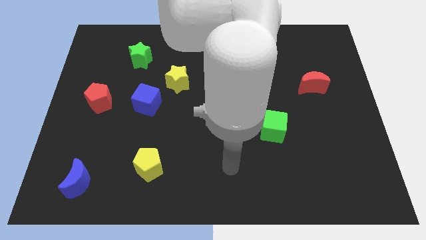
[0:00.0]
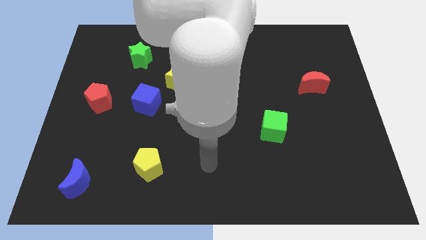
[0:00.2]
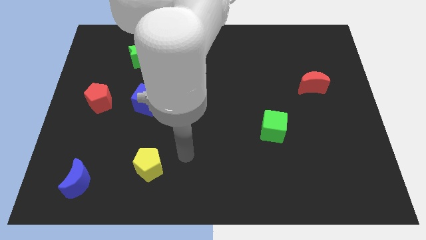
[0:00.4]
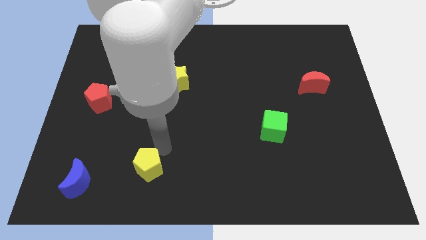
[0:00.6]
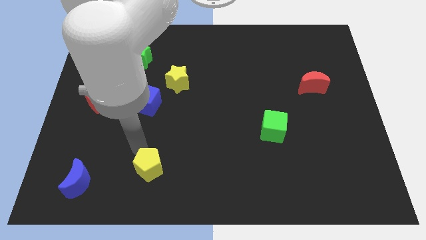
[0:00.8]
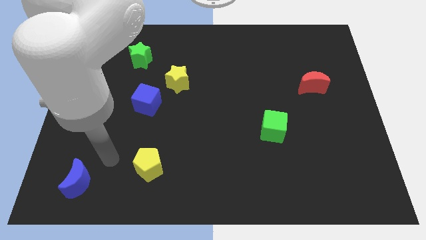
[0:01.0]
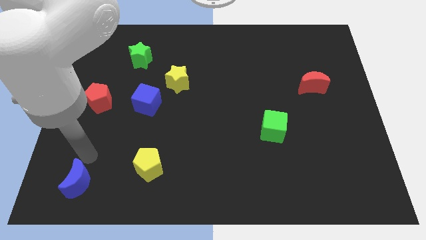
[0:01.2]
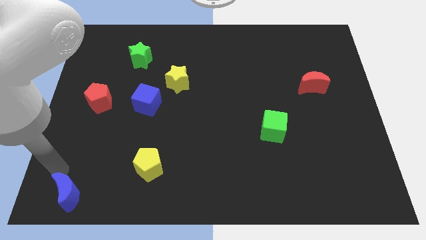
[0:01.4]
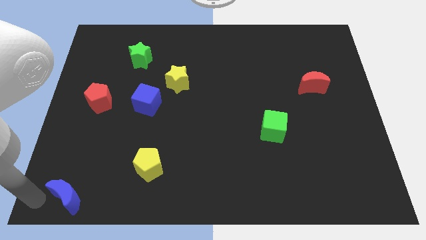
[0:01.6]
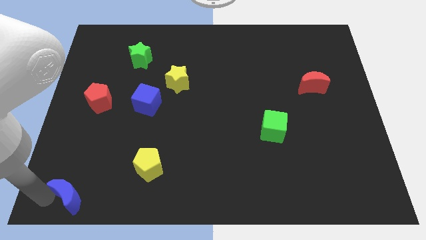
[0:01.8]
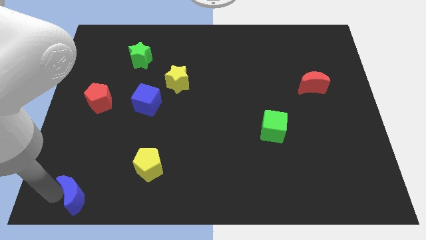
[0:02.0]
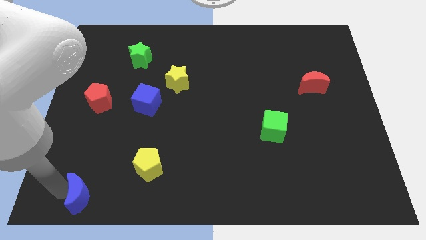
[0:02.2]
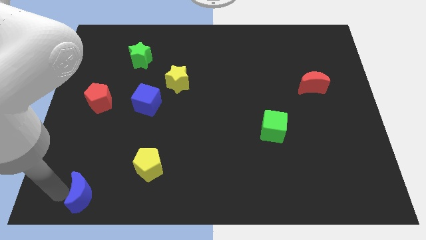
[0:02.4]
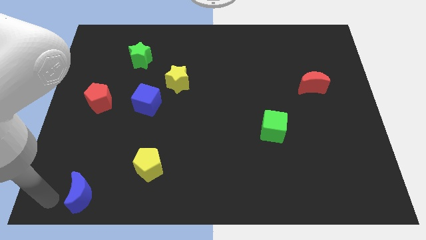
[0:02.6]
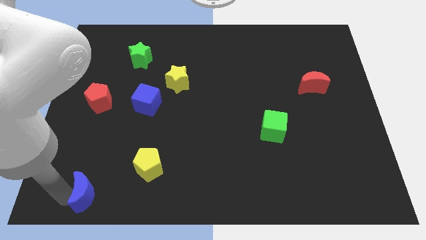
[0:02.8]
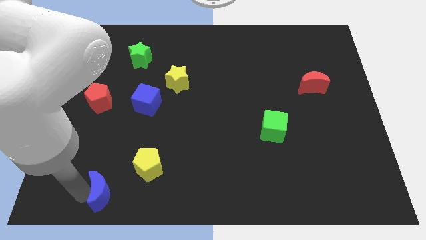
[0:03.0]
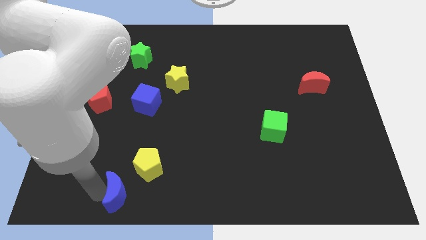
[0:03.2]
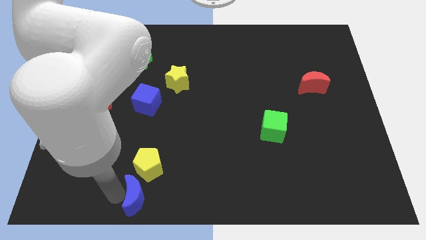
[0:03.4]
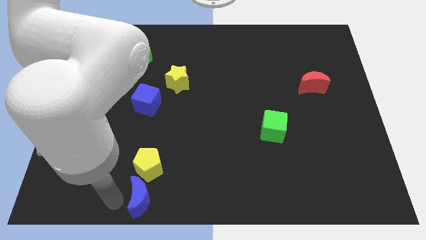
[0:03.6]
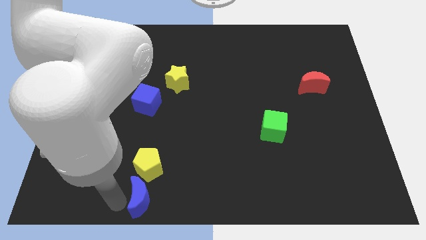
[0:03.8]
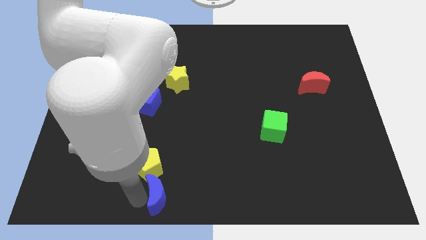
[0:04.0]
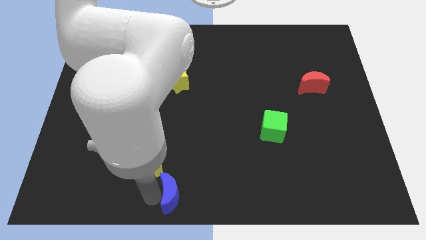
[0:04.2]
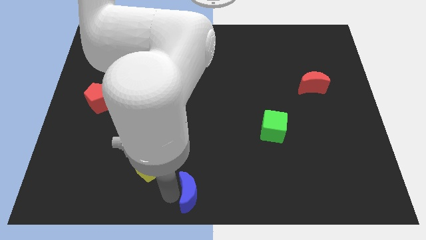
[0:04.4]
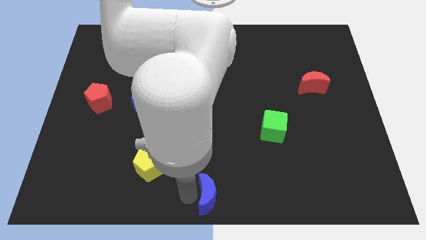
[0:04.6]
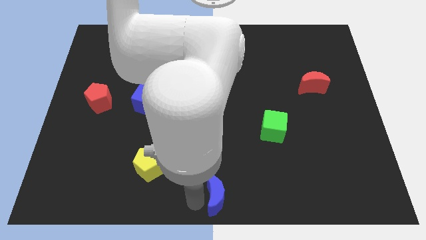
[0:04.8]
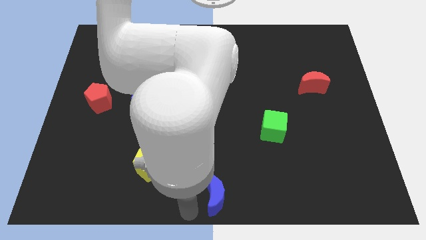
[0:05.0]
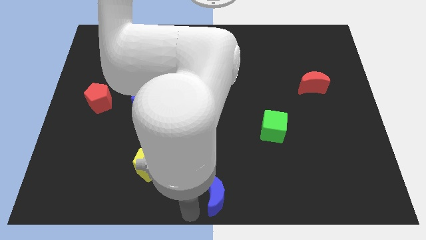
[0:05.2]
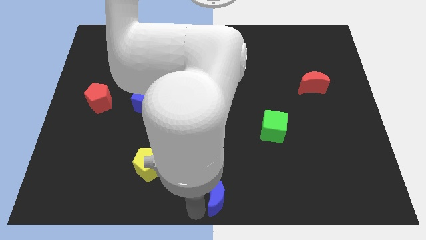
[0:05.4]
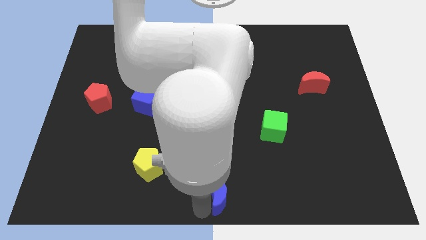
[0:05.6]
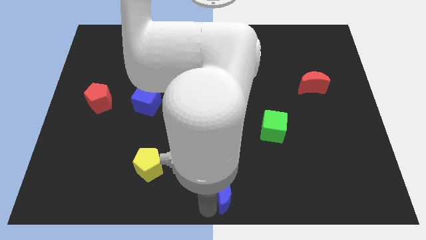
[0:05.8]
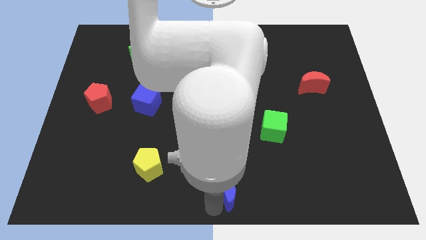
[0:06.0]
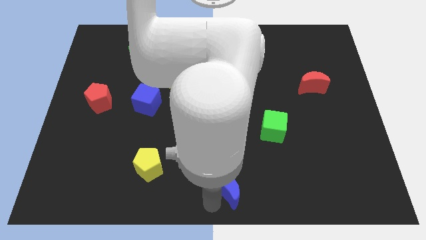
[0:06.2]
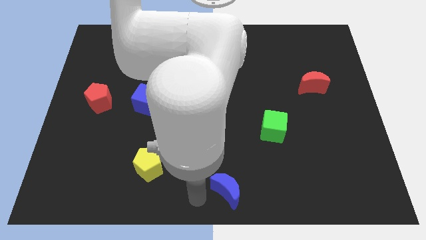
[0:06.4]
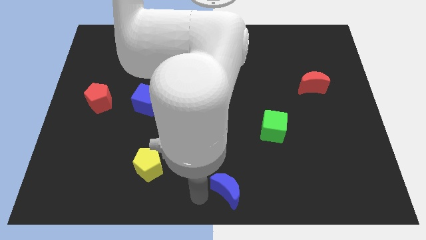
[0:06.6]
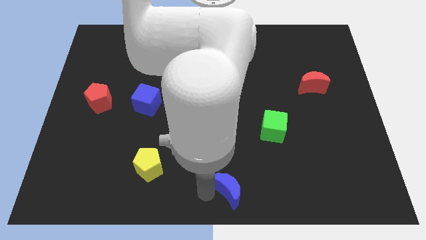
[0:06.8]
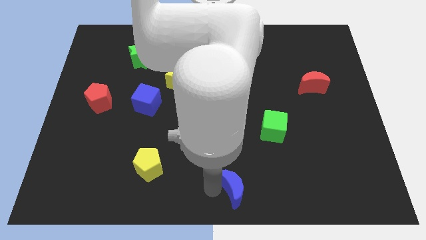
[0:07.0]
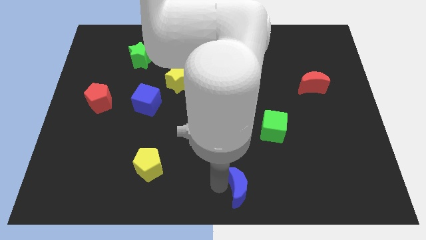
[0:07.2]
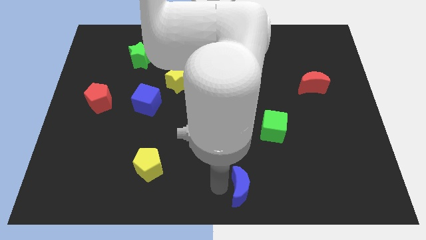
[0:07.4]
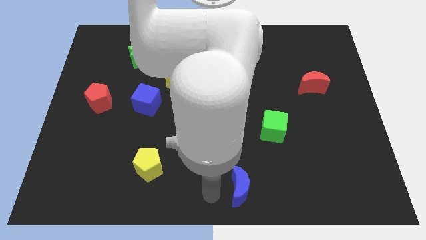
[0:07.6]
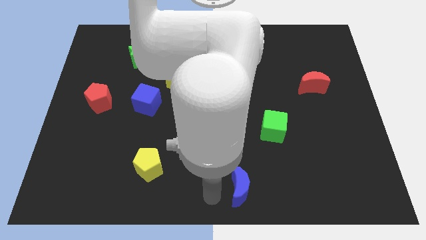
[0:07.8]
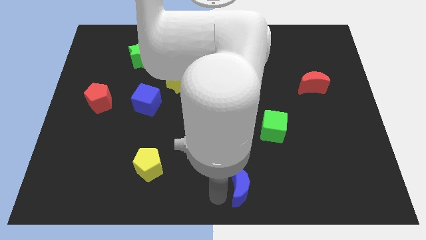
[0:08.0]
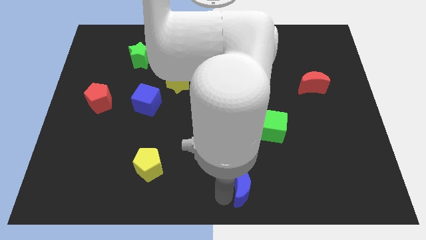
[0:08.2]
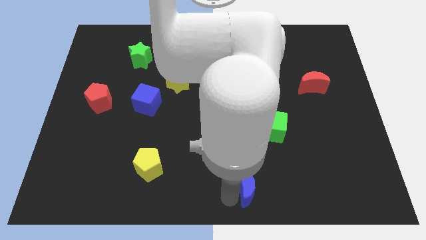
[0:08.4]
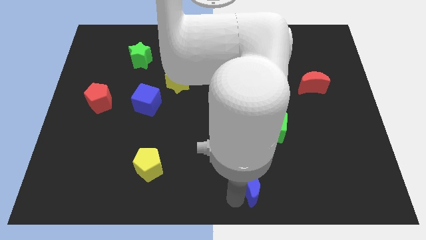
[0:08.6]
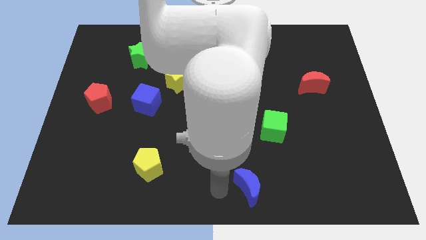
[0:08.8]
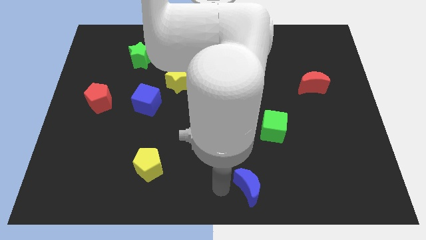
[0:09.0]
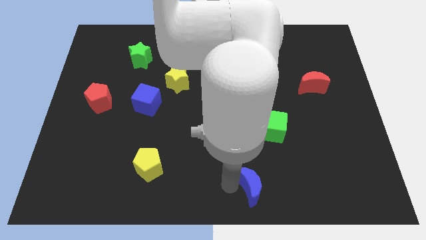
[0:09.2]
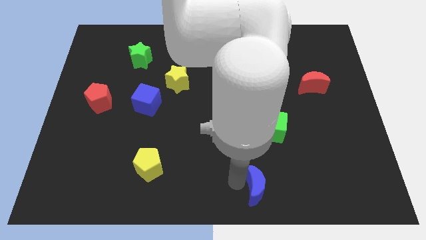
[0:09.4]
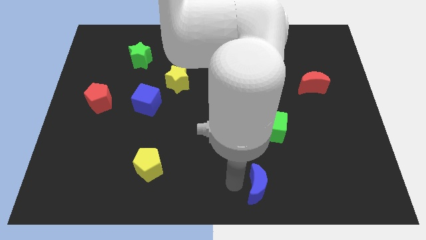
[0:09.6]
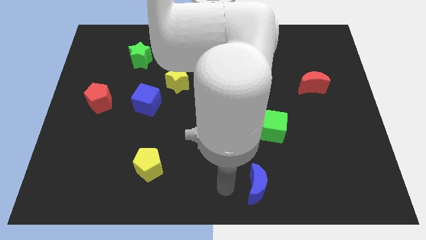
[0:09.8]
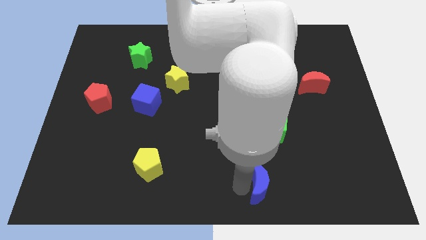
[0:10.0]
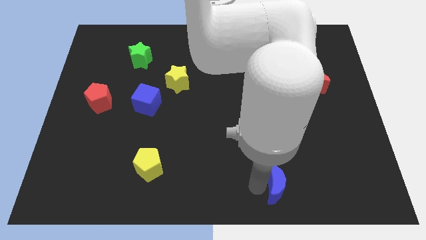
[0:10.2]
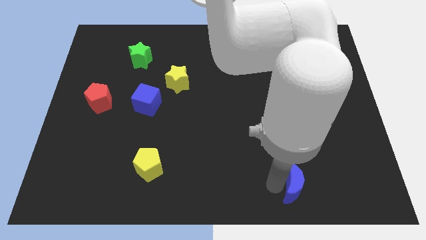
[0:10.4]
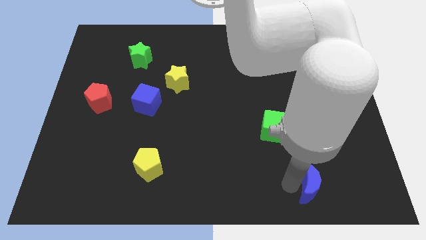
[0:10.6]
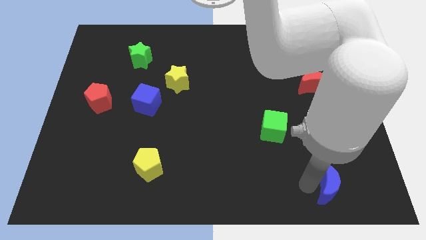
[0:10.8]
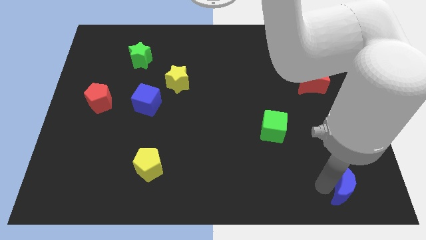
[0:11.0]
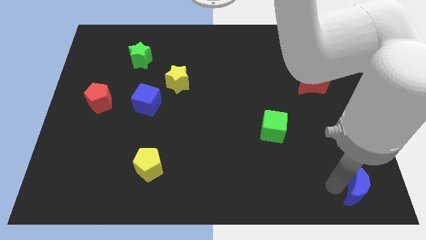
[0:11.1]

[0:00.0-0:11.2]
slide the blue moon to the bottom right corner

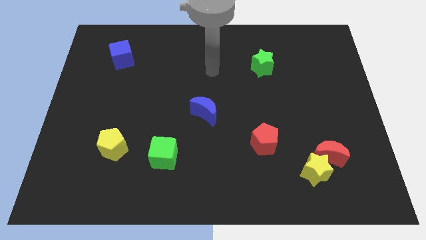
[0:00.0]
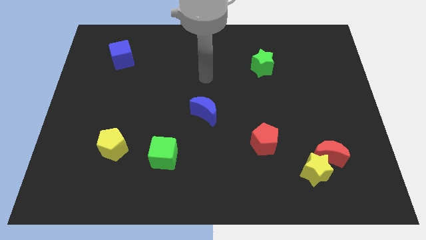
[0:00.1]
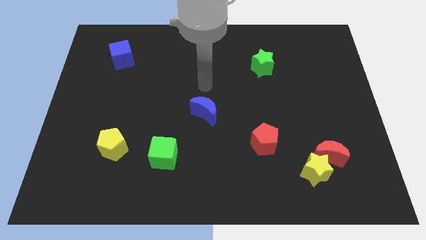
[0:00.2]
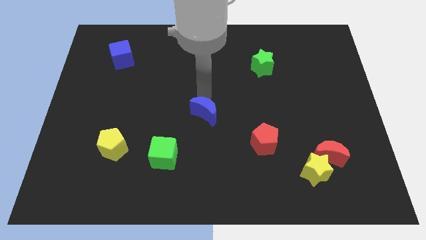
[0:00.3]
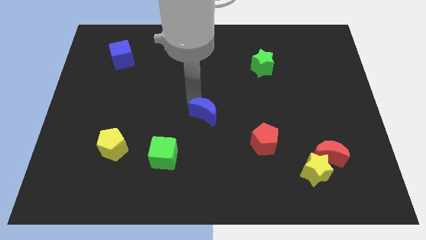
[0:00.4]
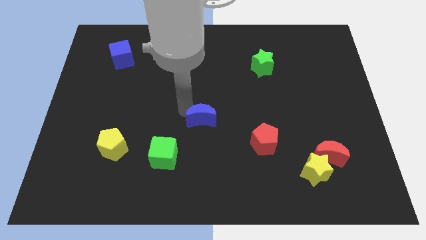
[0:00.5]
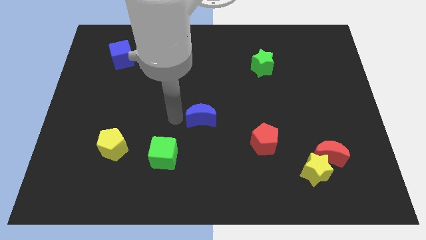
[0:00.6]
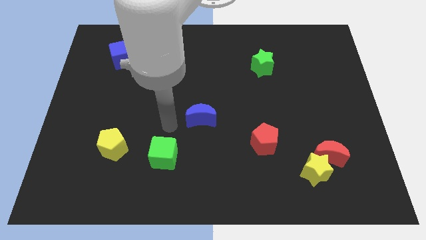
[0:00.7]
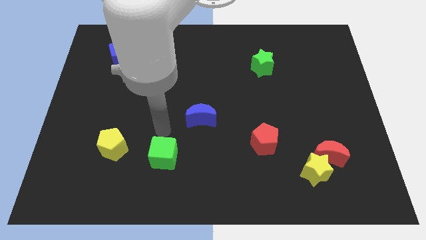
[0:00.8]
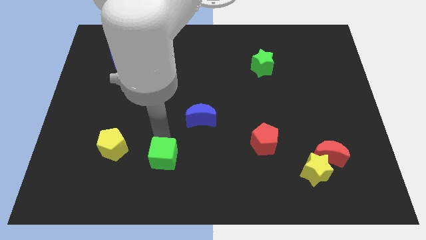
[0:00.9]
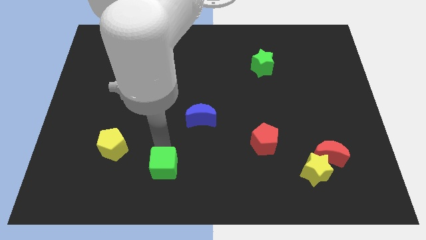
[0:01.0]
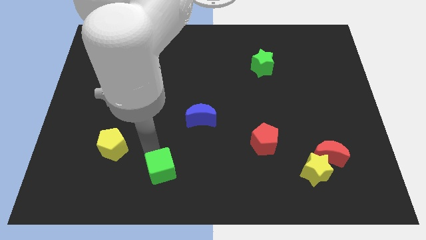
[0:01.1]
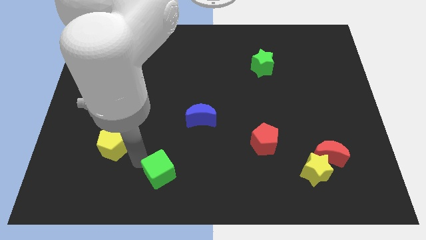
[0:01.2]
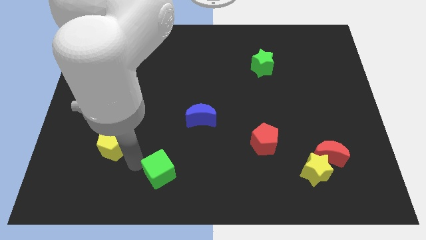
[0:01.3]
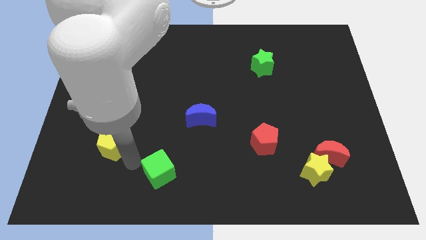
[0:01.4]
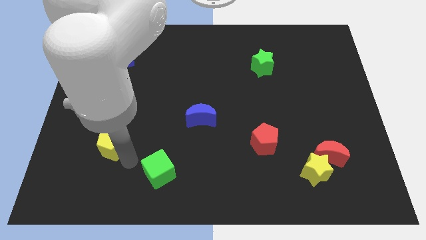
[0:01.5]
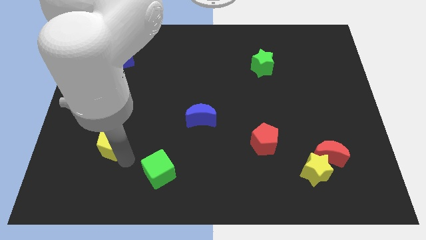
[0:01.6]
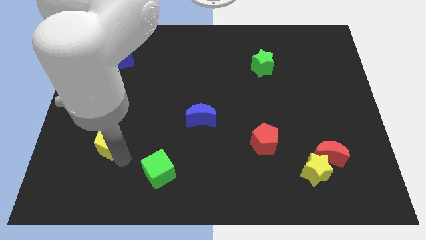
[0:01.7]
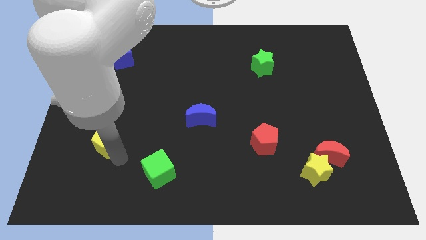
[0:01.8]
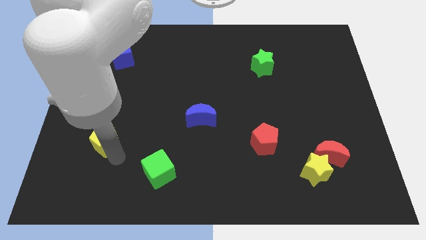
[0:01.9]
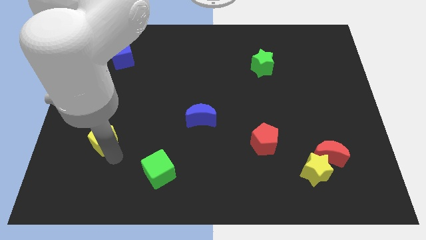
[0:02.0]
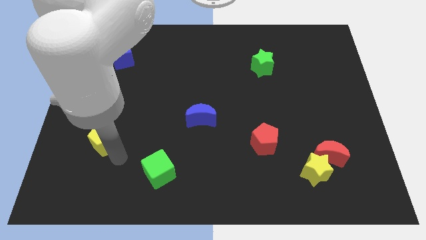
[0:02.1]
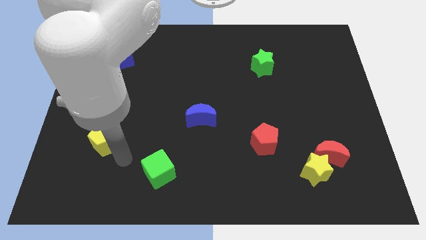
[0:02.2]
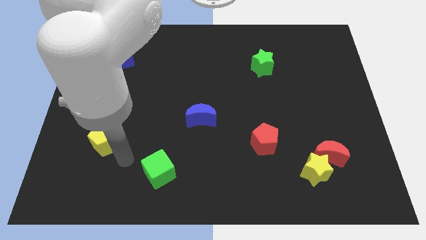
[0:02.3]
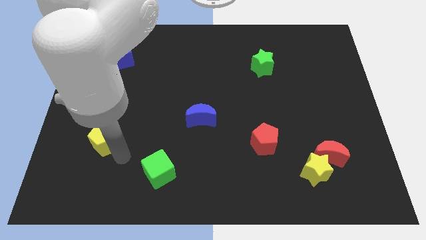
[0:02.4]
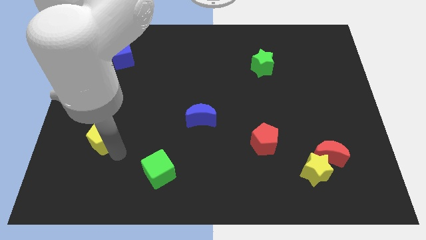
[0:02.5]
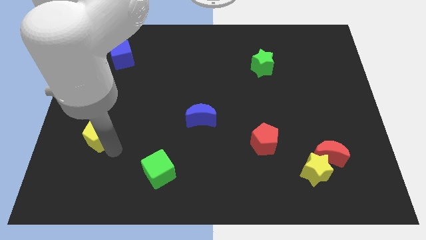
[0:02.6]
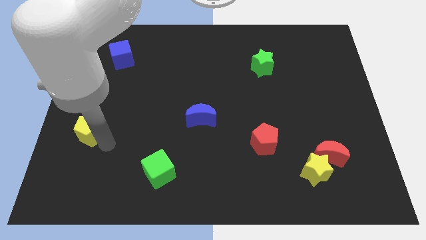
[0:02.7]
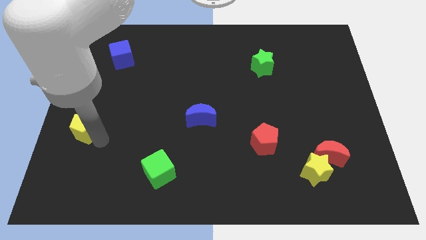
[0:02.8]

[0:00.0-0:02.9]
move the yellow pentagon to the left side of the board
